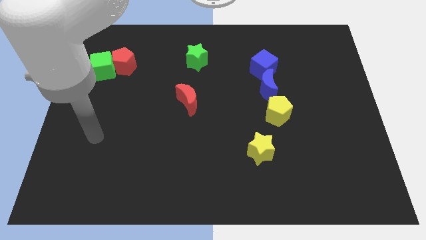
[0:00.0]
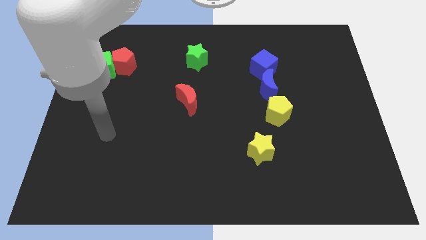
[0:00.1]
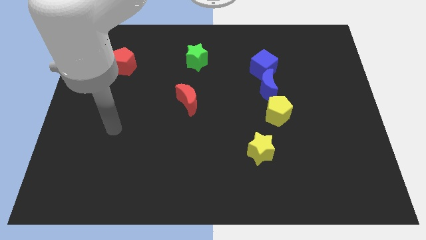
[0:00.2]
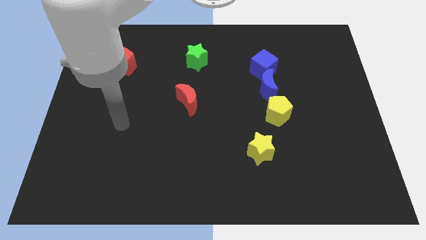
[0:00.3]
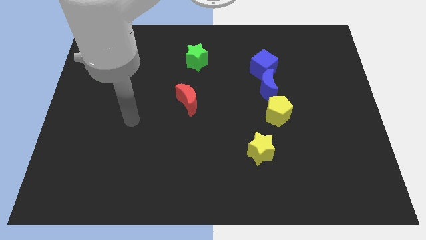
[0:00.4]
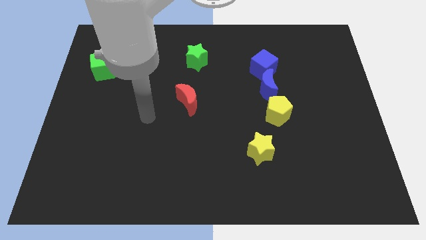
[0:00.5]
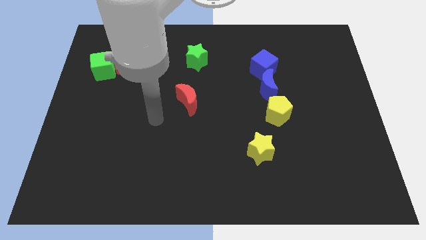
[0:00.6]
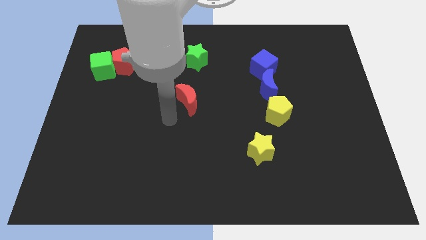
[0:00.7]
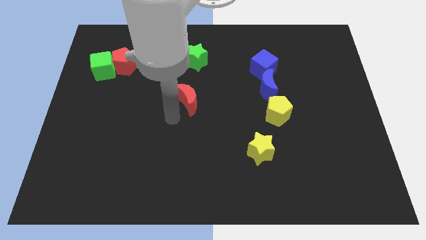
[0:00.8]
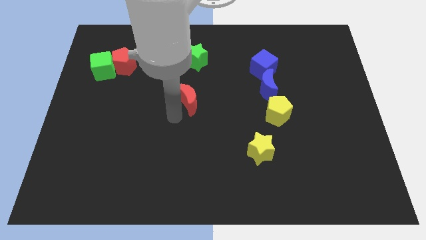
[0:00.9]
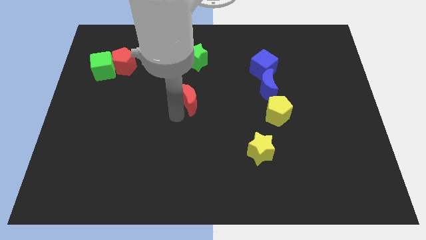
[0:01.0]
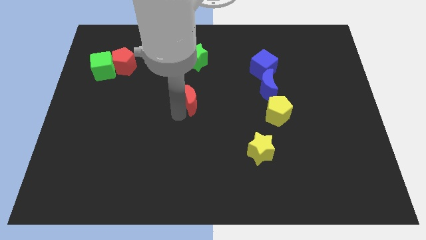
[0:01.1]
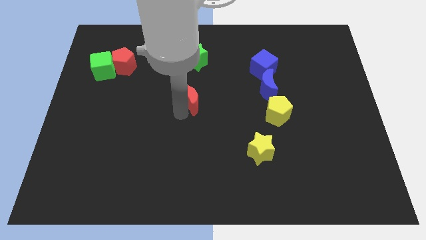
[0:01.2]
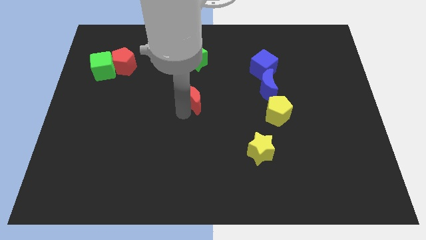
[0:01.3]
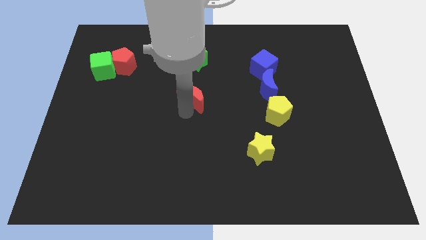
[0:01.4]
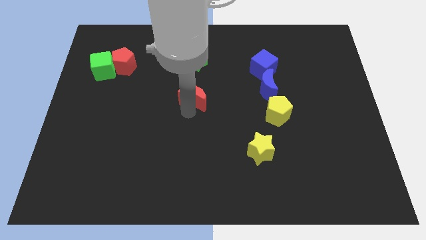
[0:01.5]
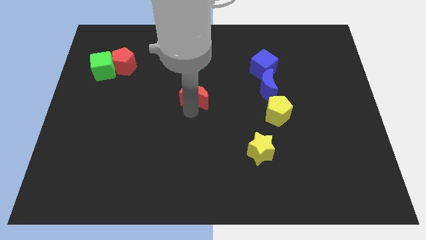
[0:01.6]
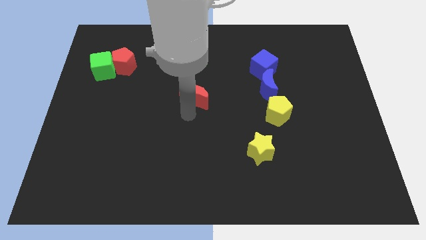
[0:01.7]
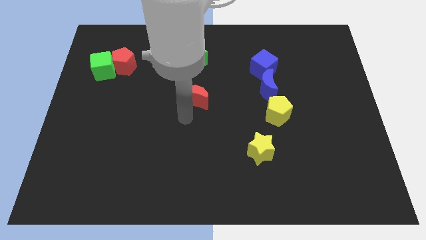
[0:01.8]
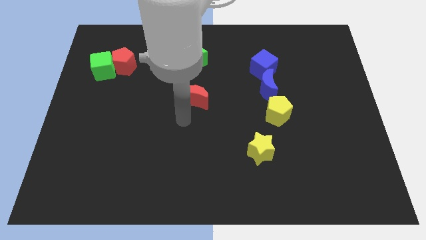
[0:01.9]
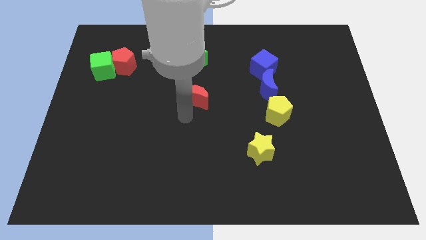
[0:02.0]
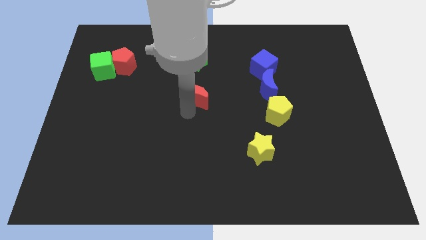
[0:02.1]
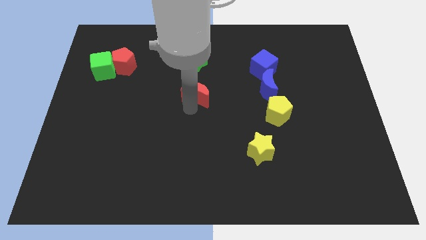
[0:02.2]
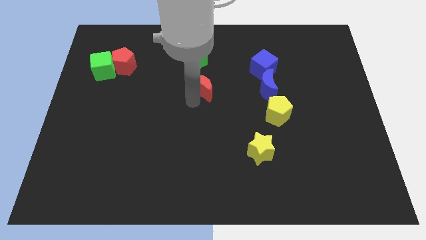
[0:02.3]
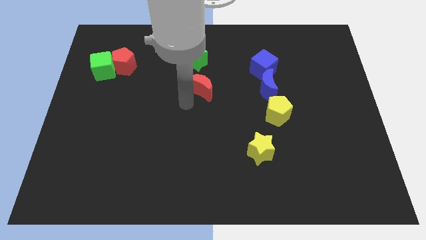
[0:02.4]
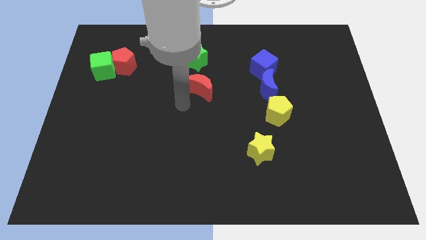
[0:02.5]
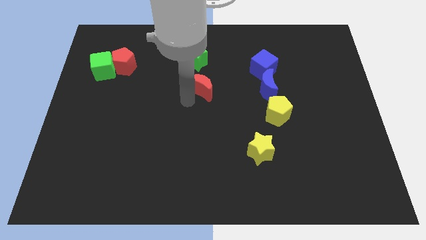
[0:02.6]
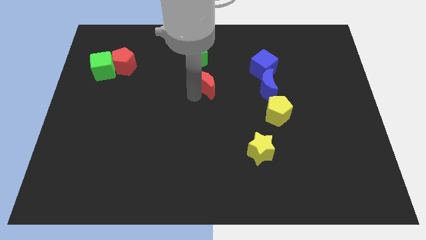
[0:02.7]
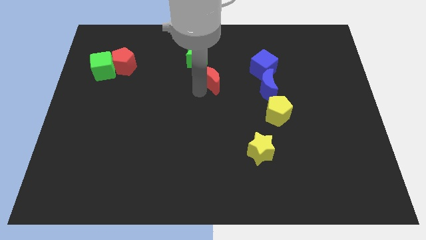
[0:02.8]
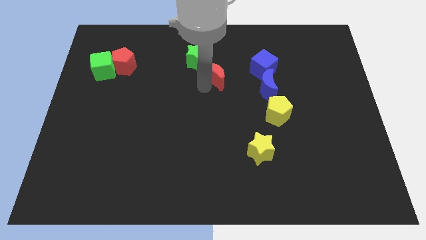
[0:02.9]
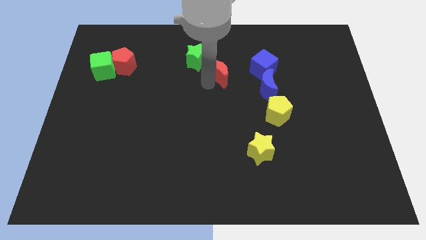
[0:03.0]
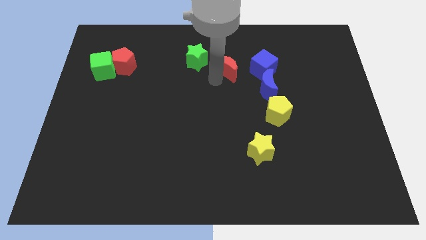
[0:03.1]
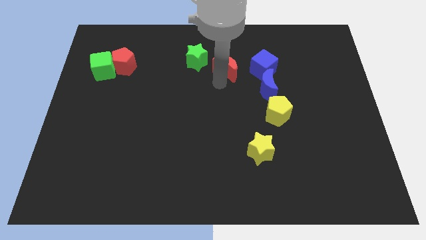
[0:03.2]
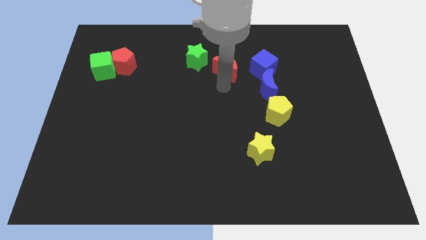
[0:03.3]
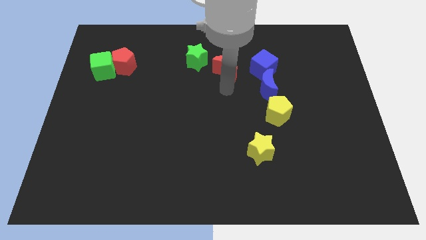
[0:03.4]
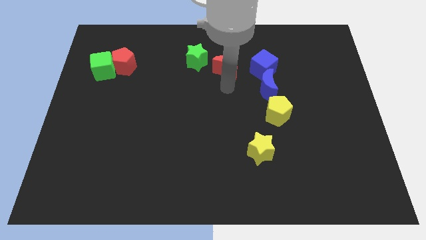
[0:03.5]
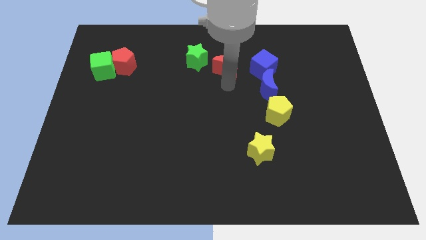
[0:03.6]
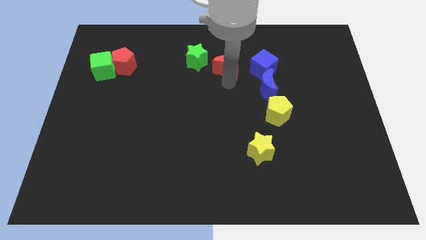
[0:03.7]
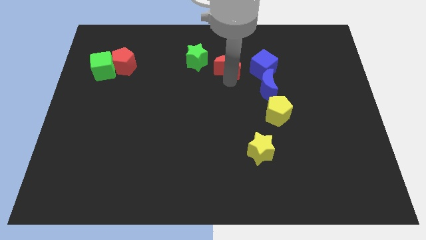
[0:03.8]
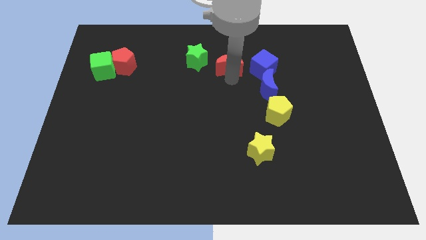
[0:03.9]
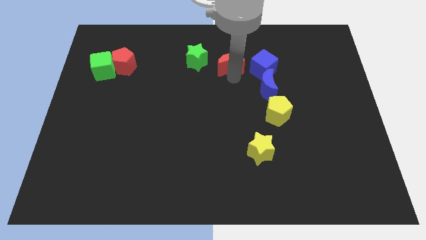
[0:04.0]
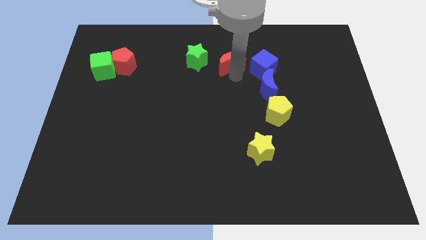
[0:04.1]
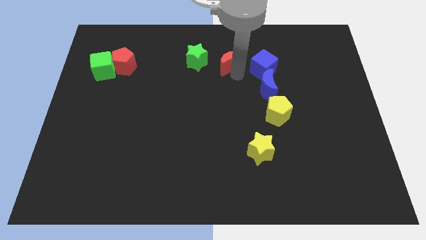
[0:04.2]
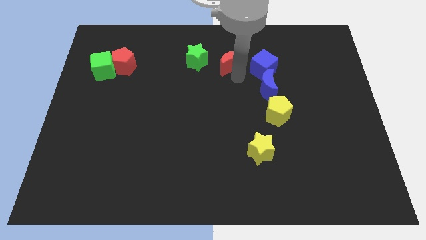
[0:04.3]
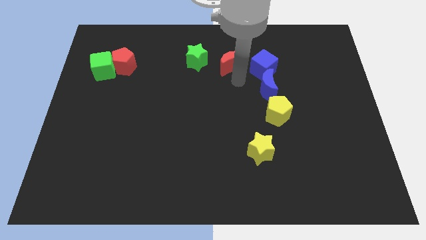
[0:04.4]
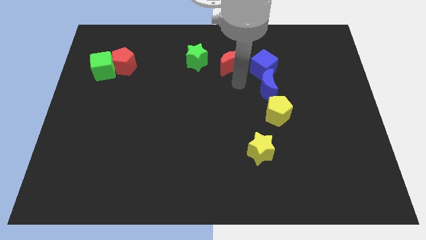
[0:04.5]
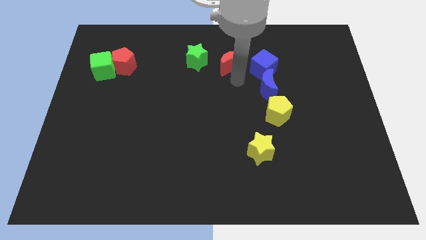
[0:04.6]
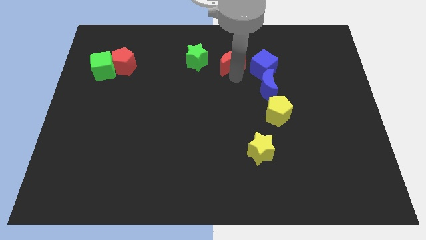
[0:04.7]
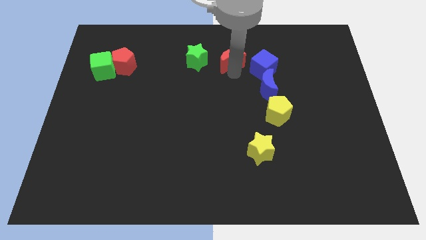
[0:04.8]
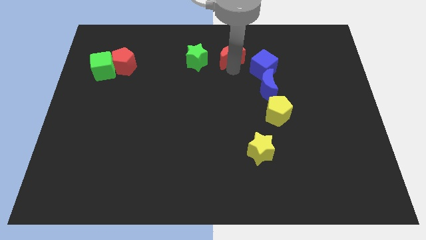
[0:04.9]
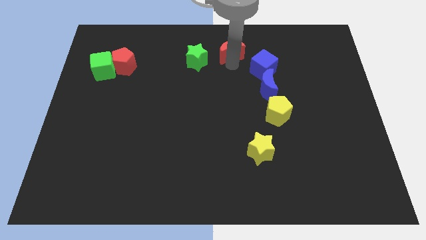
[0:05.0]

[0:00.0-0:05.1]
push the red moon to the top

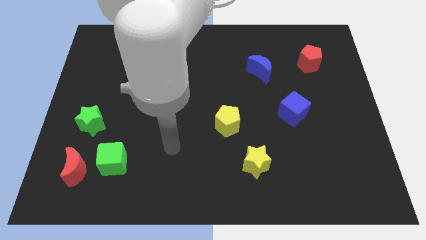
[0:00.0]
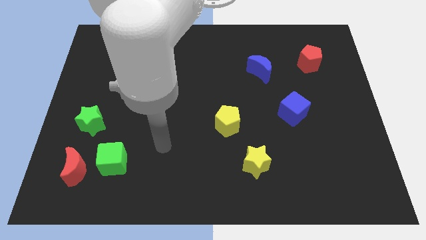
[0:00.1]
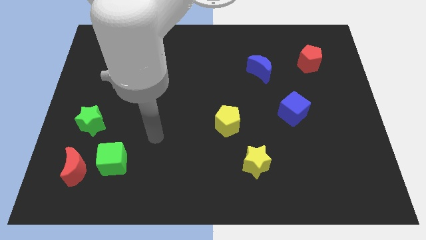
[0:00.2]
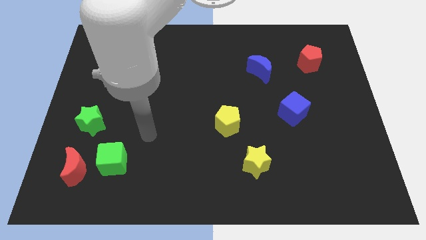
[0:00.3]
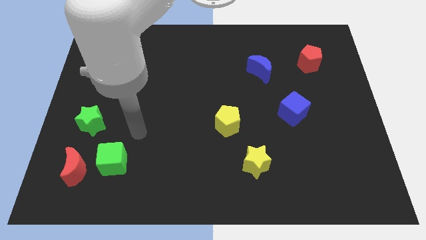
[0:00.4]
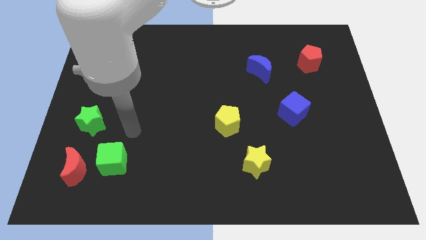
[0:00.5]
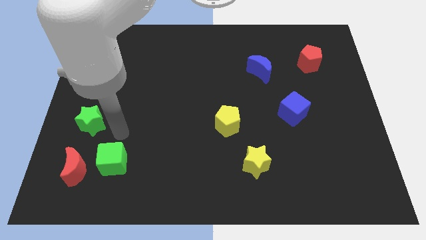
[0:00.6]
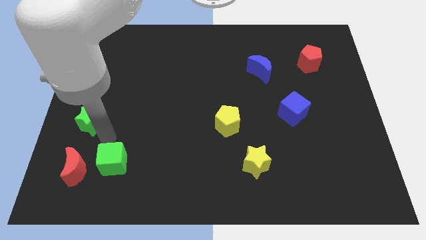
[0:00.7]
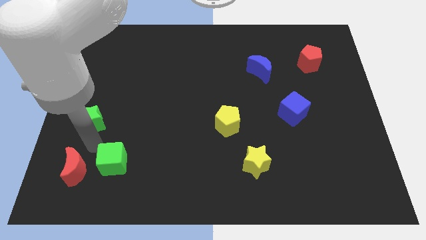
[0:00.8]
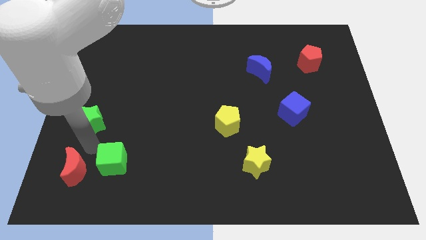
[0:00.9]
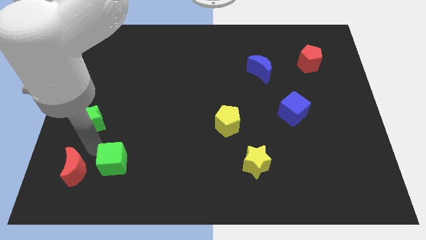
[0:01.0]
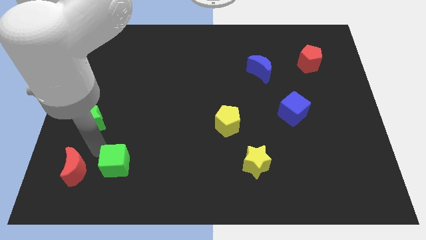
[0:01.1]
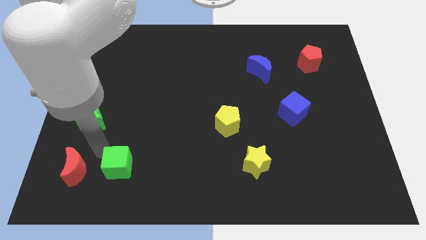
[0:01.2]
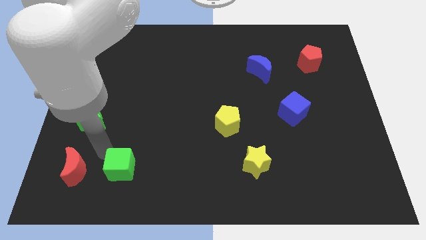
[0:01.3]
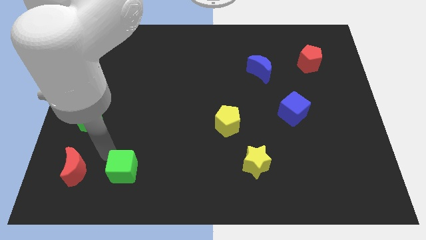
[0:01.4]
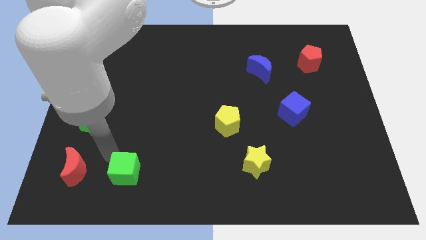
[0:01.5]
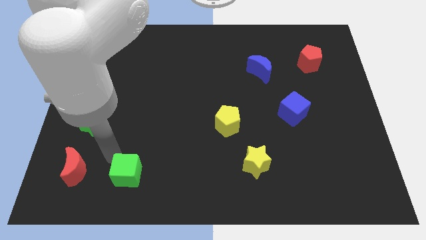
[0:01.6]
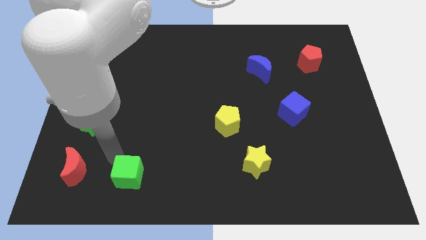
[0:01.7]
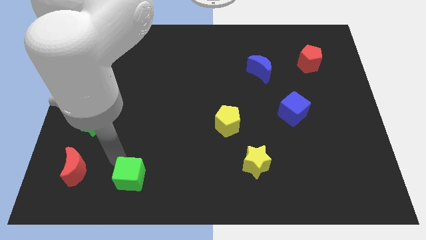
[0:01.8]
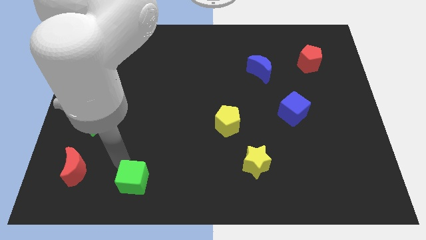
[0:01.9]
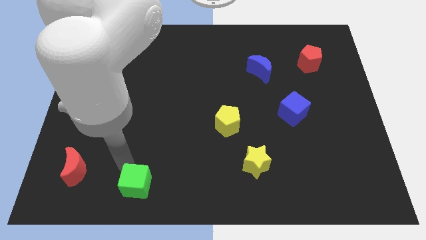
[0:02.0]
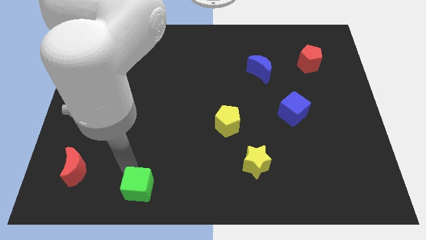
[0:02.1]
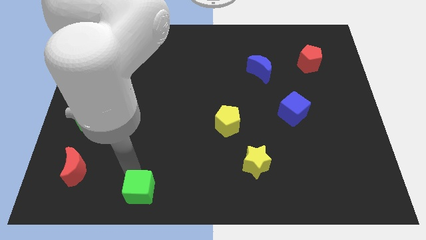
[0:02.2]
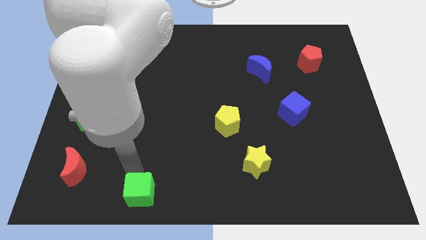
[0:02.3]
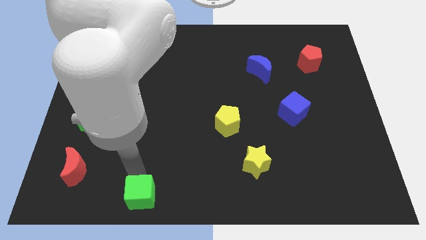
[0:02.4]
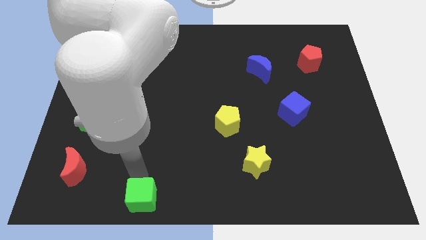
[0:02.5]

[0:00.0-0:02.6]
put the green cube to the bottom
